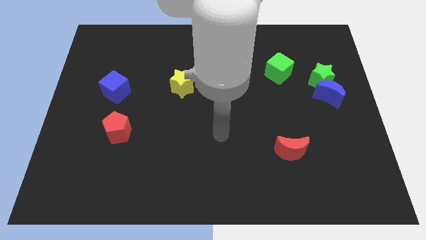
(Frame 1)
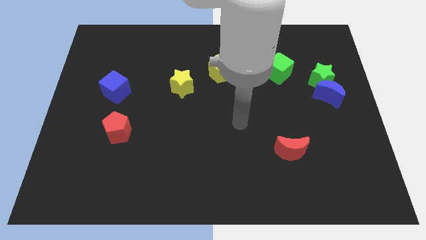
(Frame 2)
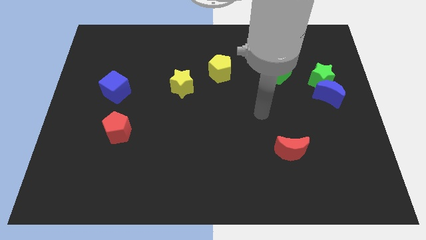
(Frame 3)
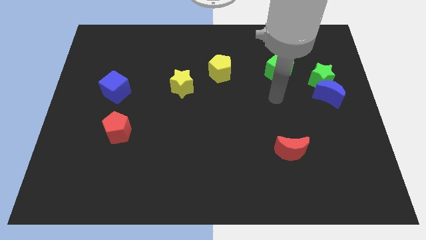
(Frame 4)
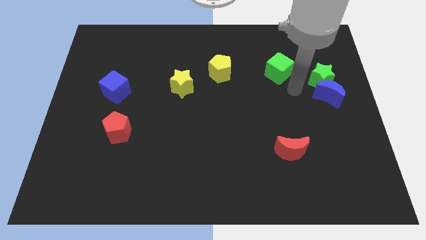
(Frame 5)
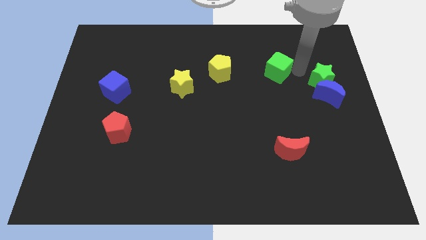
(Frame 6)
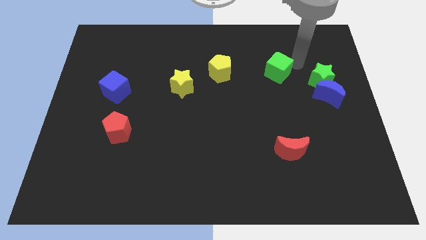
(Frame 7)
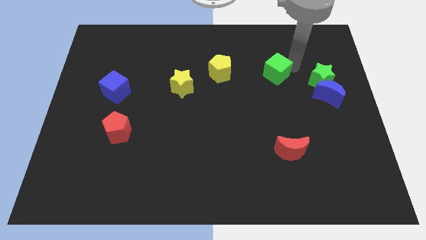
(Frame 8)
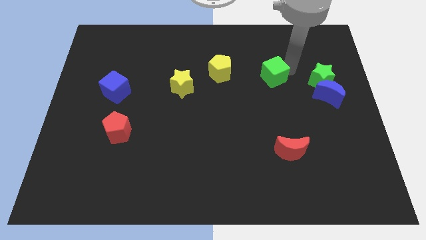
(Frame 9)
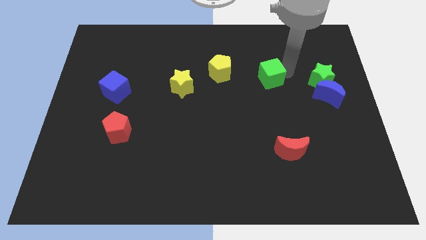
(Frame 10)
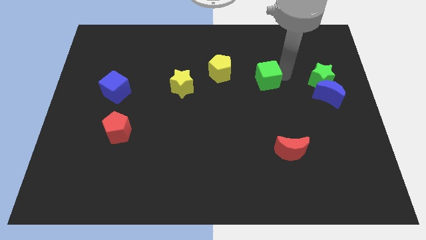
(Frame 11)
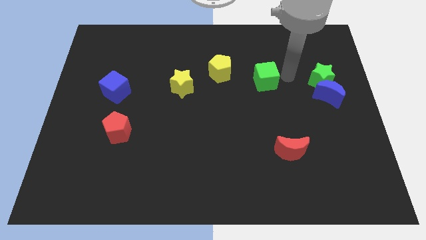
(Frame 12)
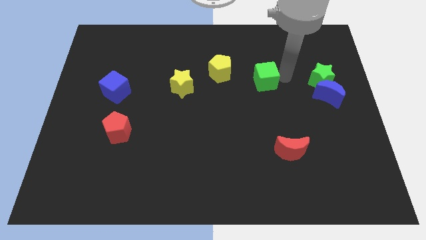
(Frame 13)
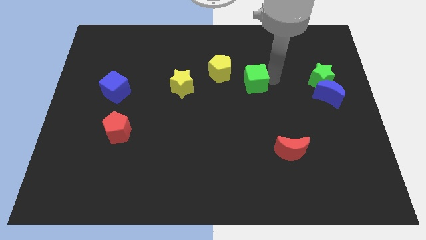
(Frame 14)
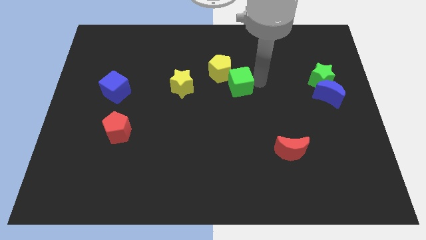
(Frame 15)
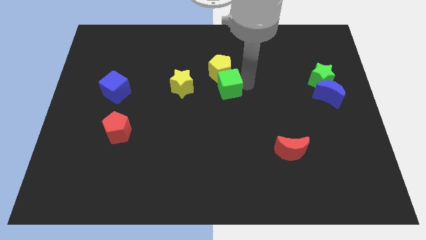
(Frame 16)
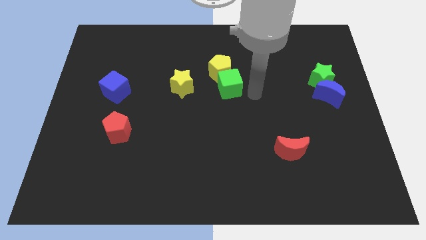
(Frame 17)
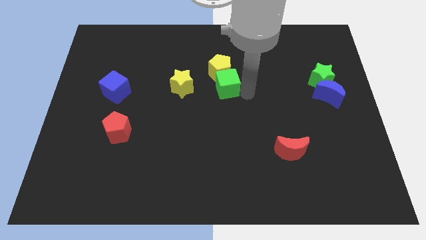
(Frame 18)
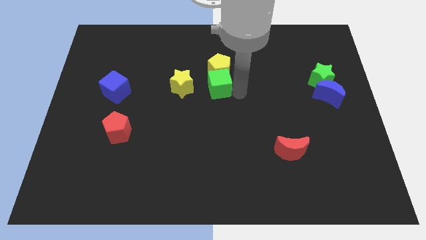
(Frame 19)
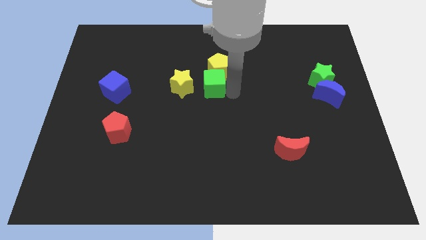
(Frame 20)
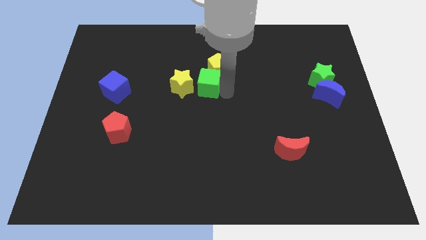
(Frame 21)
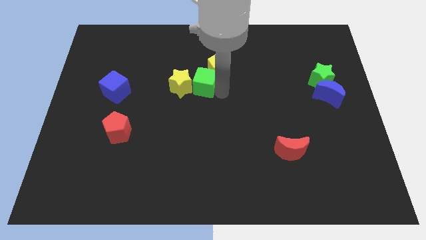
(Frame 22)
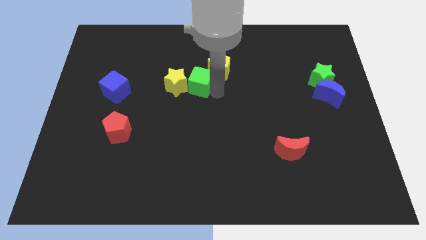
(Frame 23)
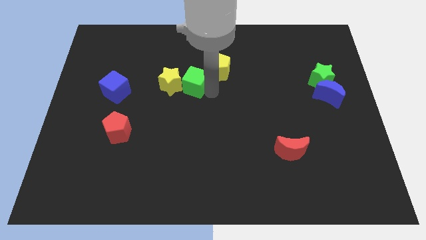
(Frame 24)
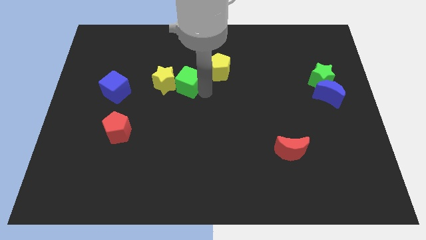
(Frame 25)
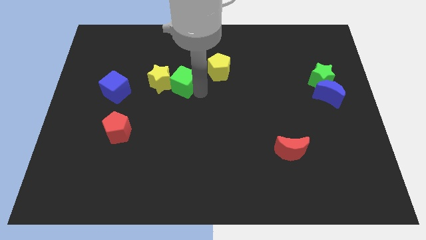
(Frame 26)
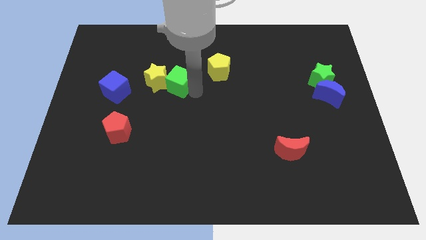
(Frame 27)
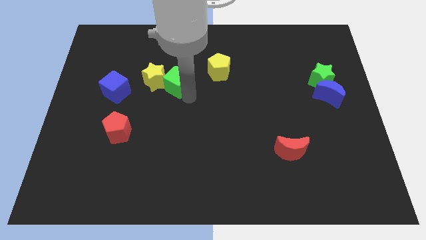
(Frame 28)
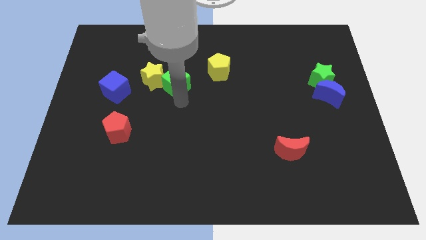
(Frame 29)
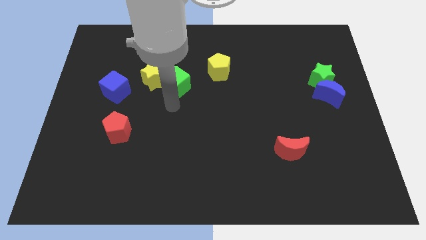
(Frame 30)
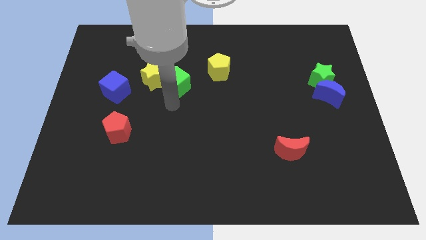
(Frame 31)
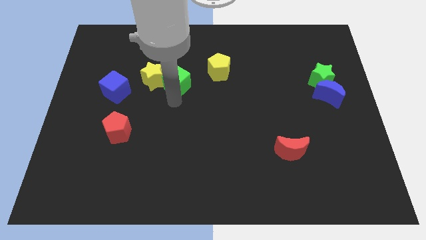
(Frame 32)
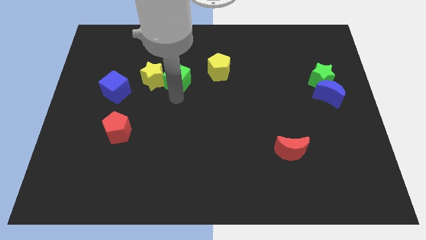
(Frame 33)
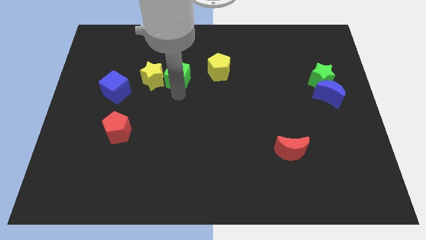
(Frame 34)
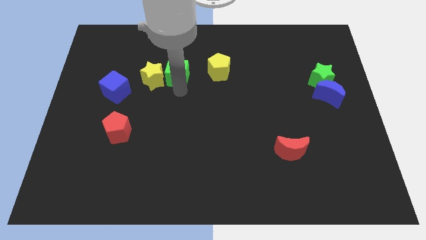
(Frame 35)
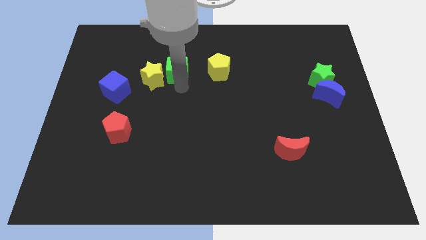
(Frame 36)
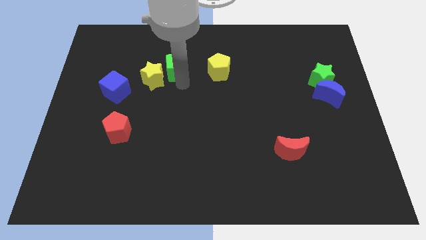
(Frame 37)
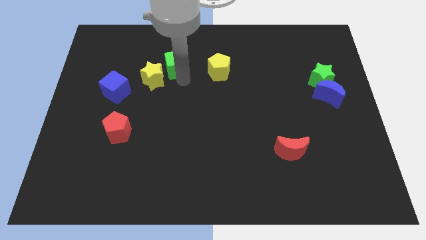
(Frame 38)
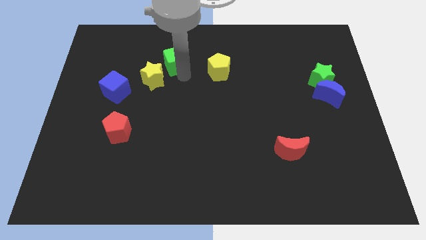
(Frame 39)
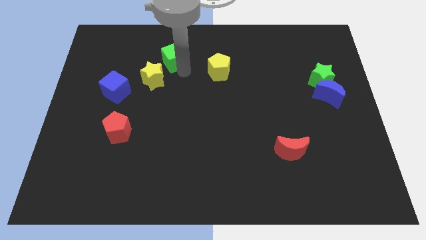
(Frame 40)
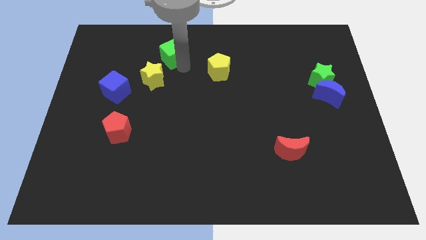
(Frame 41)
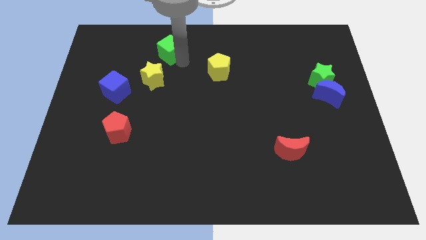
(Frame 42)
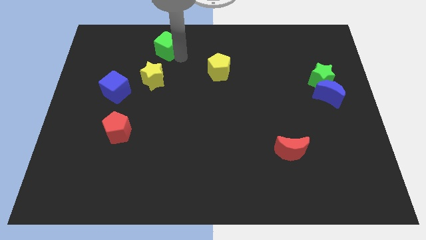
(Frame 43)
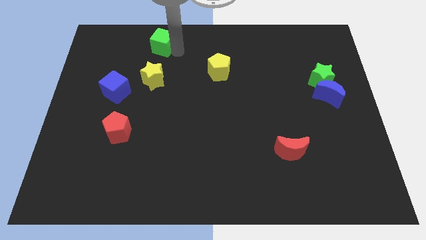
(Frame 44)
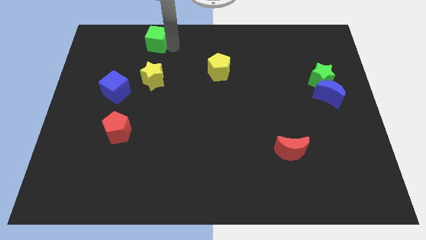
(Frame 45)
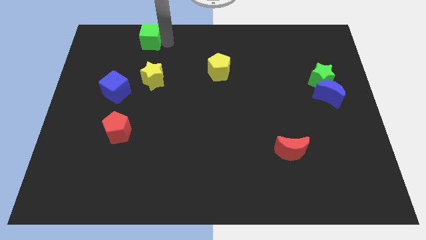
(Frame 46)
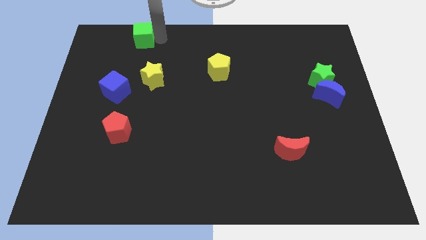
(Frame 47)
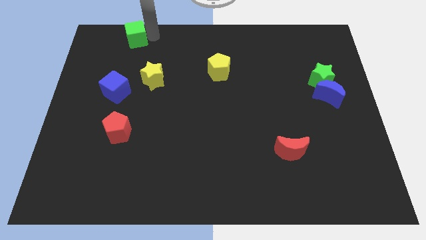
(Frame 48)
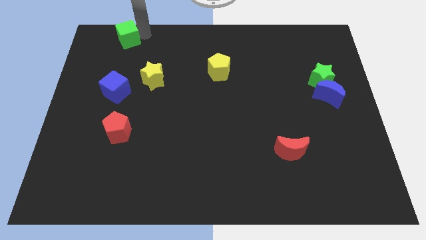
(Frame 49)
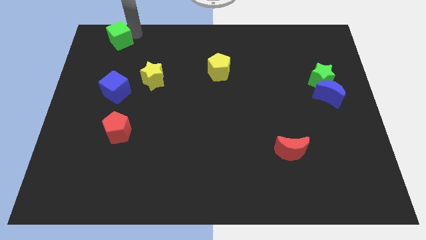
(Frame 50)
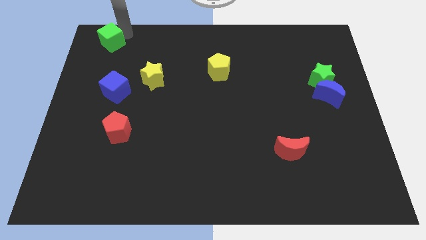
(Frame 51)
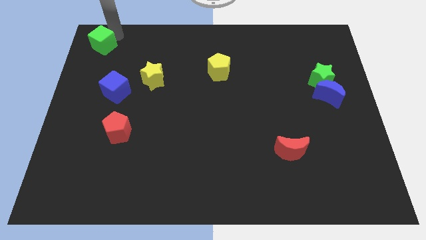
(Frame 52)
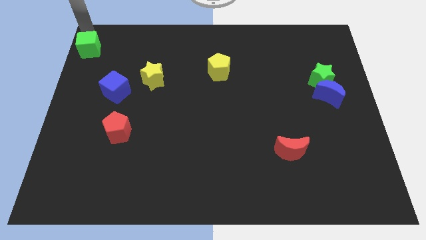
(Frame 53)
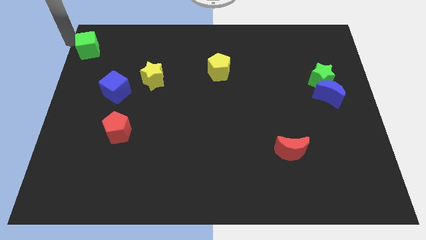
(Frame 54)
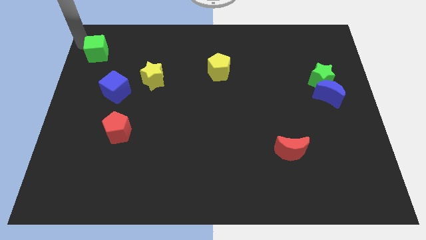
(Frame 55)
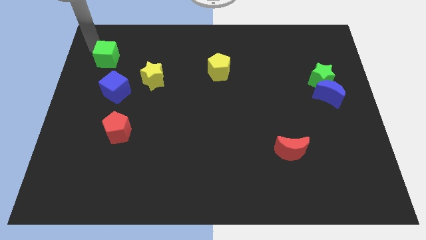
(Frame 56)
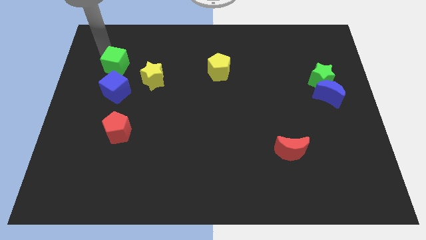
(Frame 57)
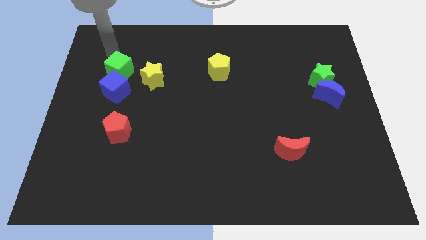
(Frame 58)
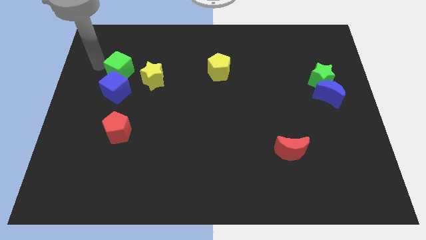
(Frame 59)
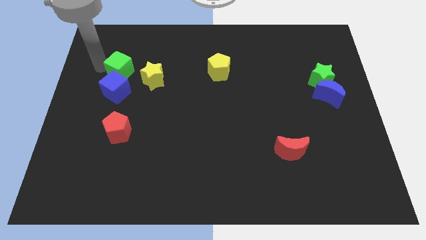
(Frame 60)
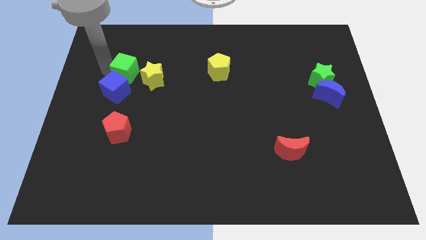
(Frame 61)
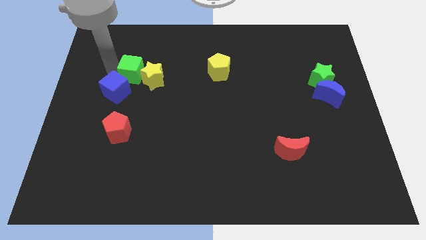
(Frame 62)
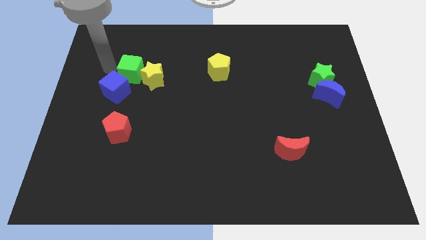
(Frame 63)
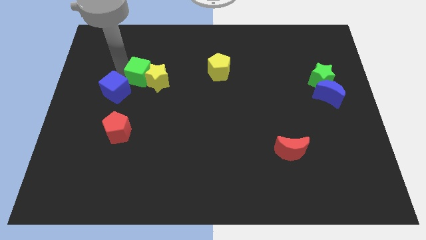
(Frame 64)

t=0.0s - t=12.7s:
move the green cube to the left of the yellow star

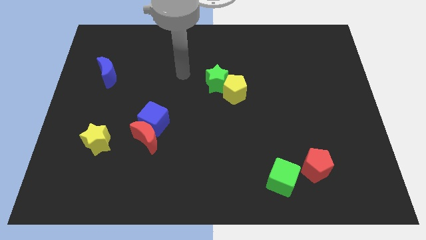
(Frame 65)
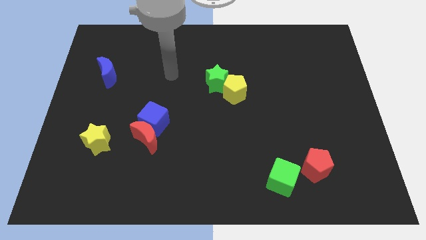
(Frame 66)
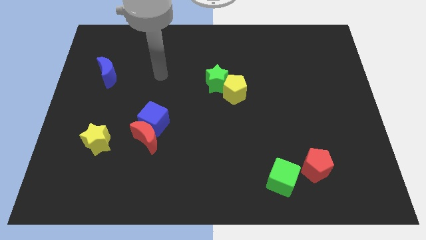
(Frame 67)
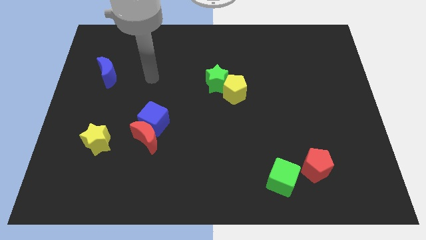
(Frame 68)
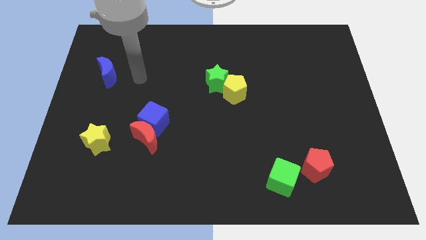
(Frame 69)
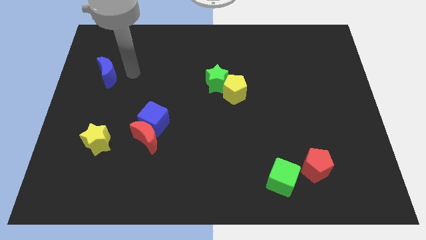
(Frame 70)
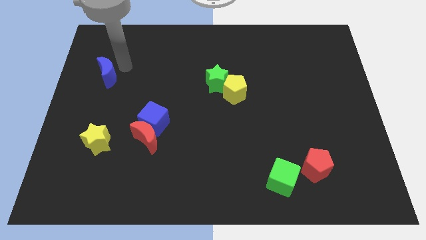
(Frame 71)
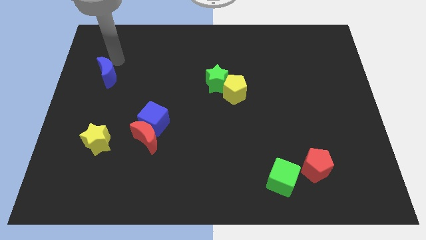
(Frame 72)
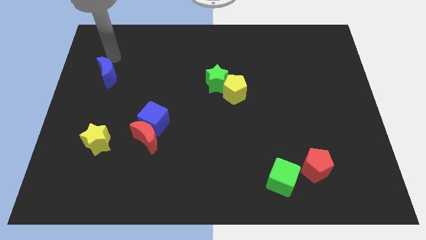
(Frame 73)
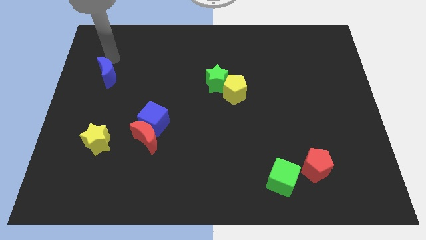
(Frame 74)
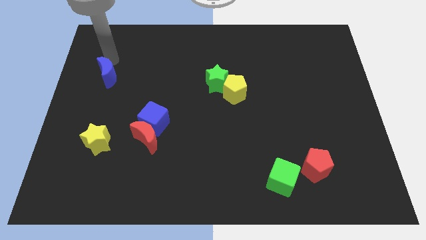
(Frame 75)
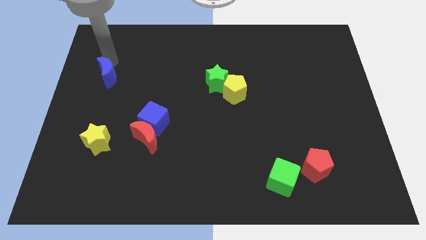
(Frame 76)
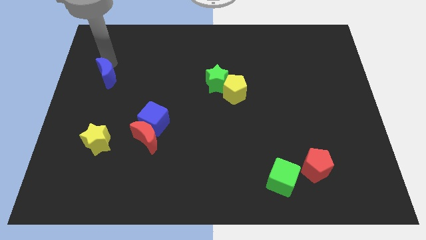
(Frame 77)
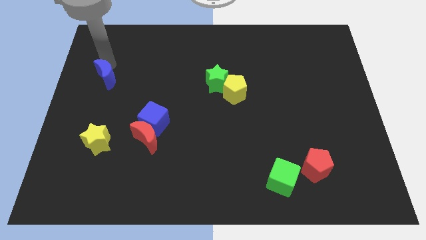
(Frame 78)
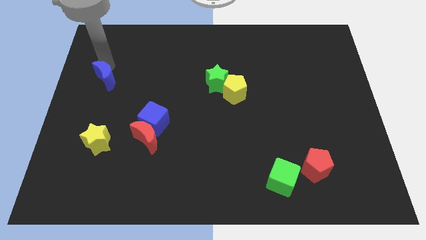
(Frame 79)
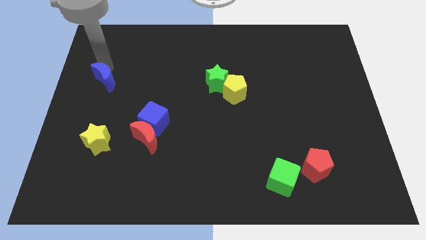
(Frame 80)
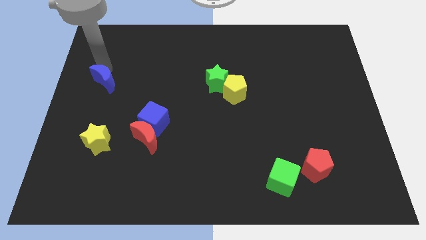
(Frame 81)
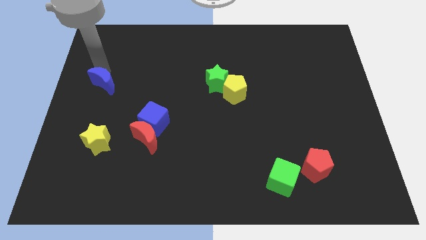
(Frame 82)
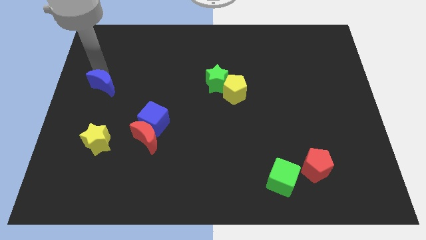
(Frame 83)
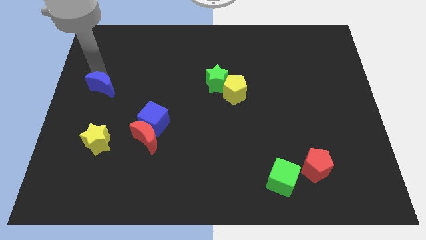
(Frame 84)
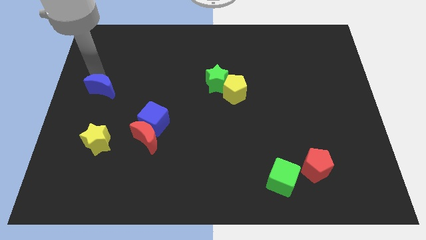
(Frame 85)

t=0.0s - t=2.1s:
move the blue moon to the top of the yellow star
